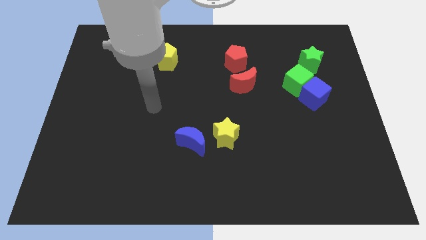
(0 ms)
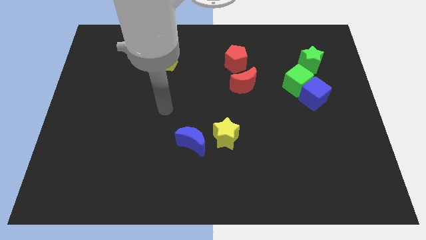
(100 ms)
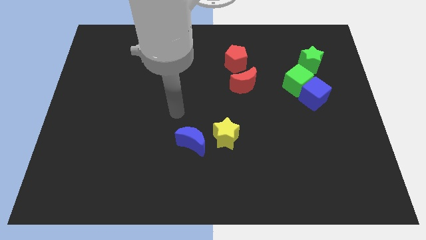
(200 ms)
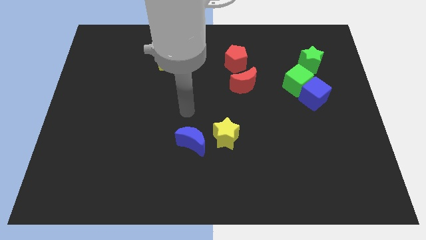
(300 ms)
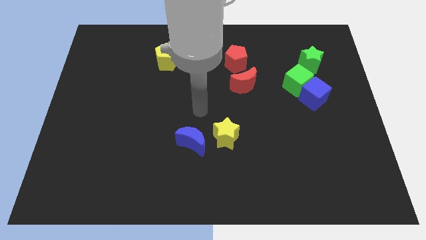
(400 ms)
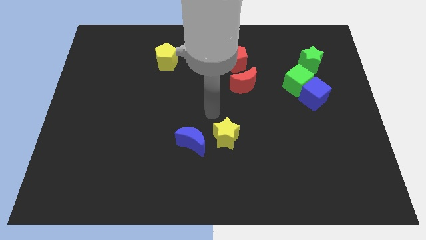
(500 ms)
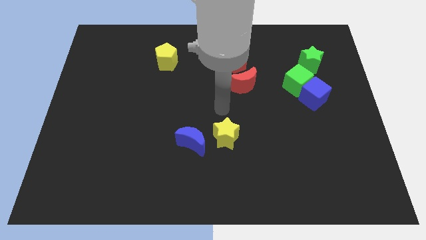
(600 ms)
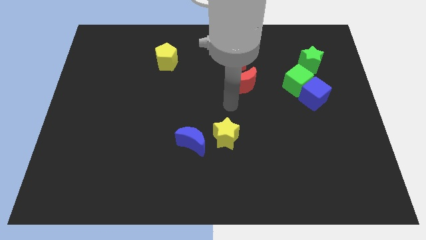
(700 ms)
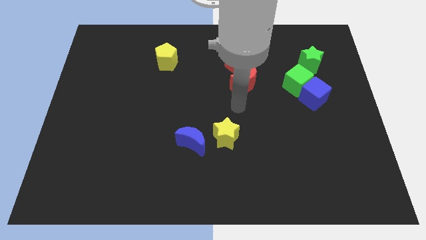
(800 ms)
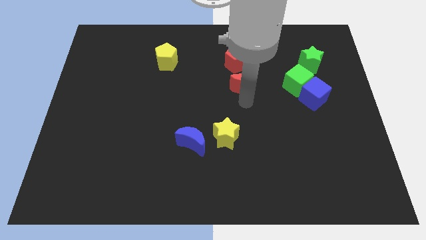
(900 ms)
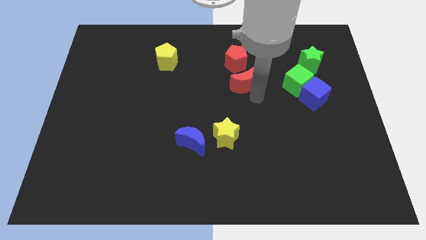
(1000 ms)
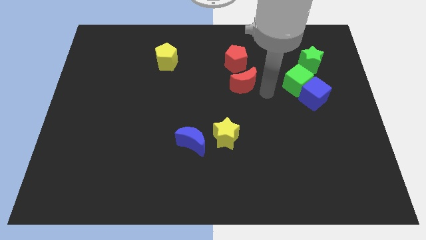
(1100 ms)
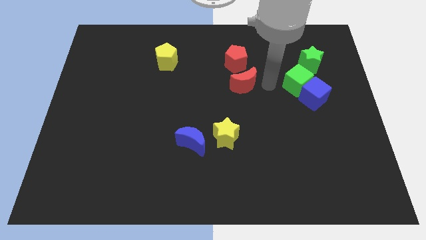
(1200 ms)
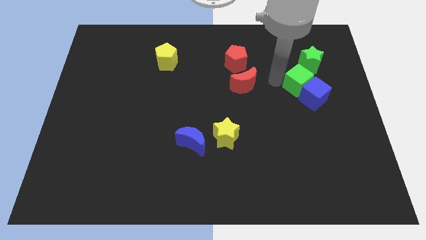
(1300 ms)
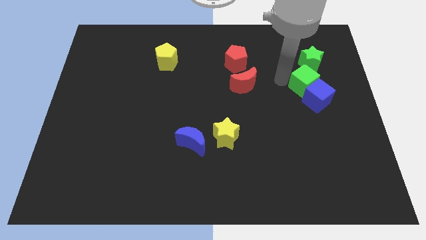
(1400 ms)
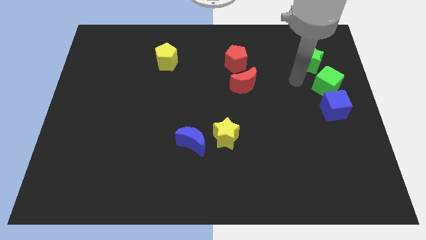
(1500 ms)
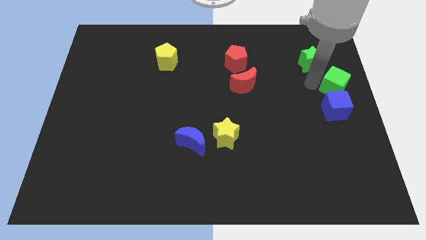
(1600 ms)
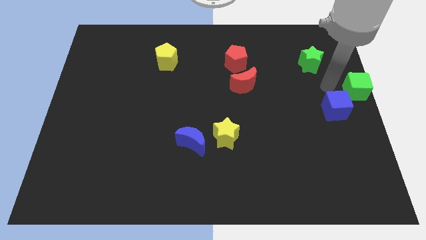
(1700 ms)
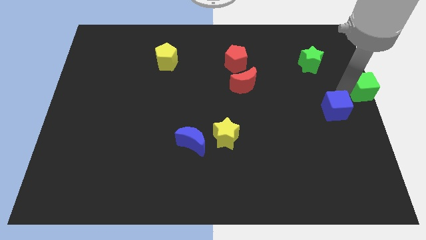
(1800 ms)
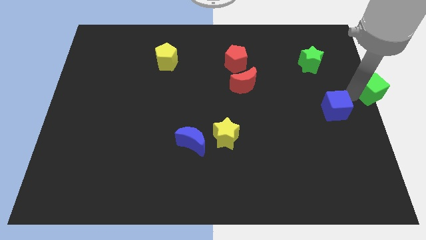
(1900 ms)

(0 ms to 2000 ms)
pull the blue cube apart from the green cube

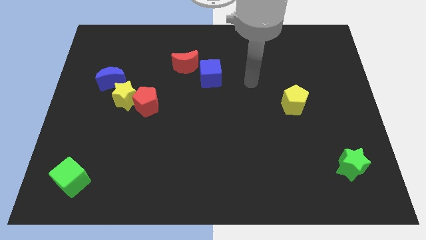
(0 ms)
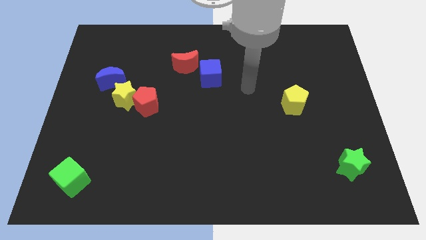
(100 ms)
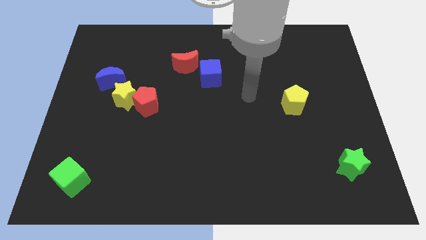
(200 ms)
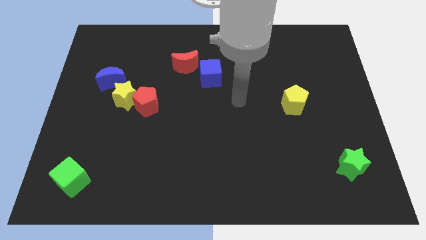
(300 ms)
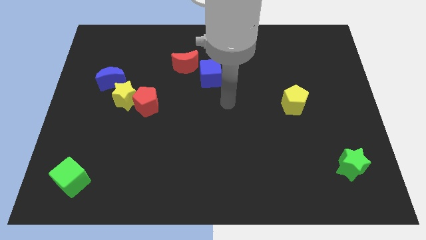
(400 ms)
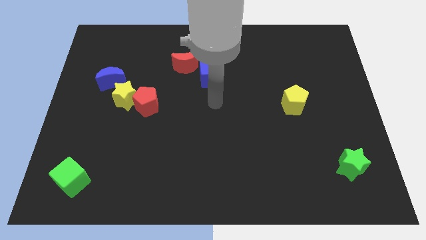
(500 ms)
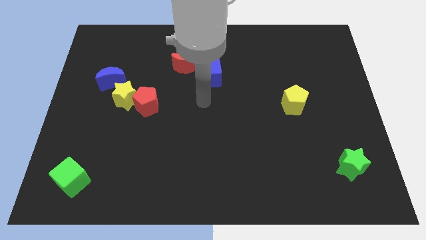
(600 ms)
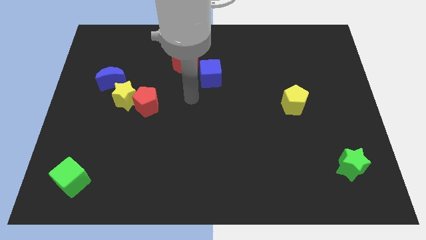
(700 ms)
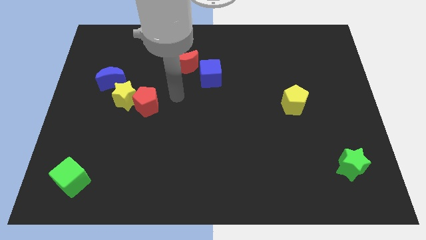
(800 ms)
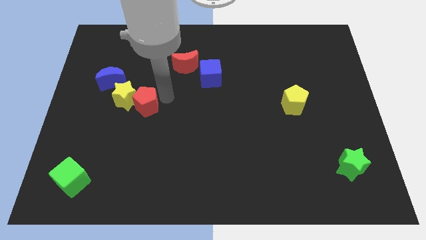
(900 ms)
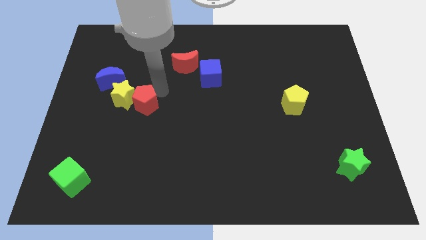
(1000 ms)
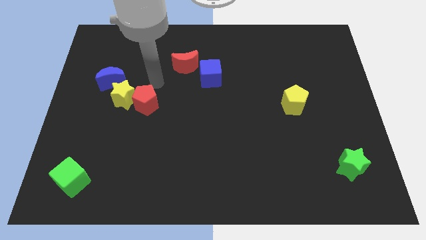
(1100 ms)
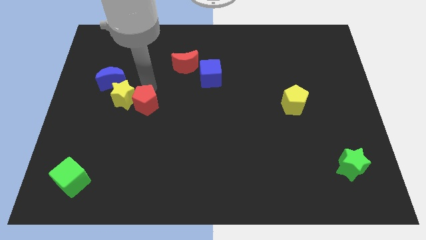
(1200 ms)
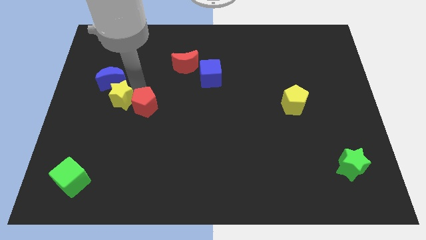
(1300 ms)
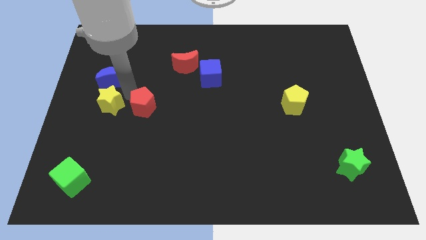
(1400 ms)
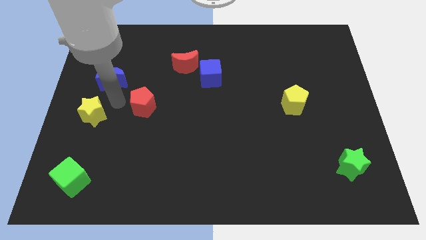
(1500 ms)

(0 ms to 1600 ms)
move the red pentagon away from the yellow star

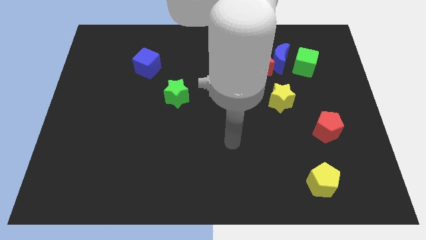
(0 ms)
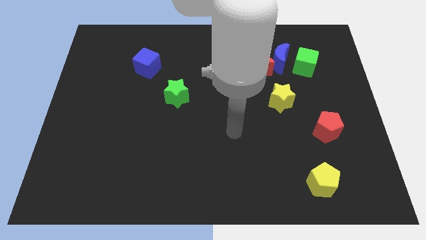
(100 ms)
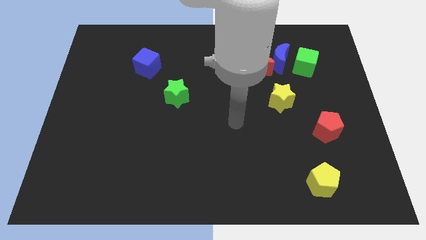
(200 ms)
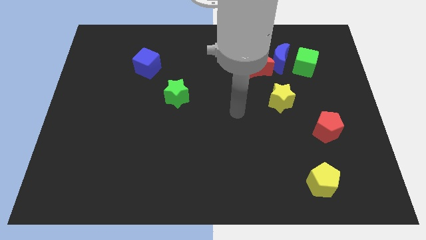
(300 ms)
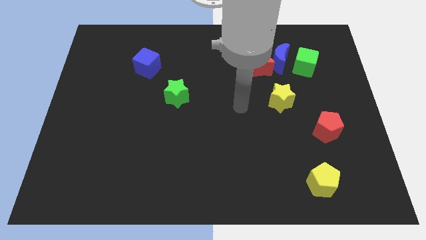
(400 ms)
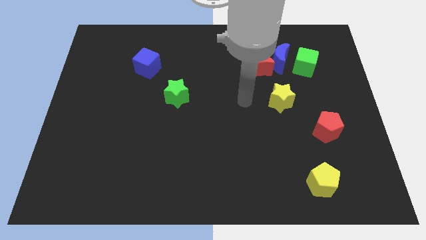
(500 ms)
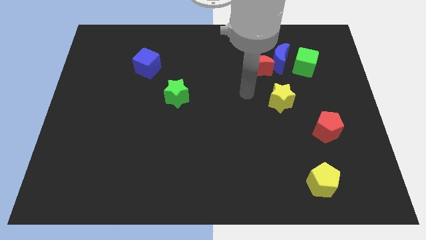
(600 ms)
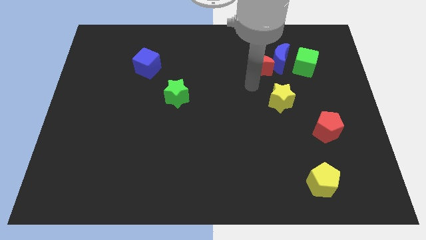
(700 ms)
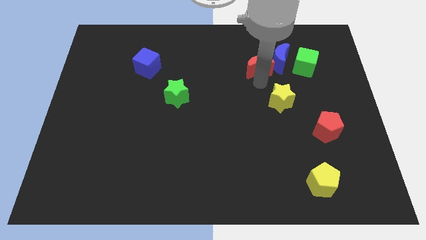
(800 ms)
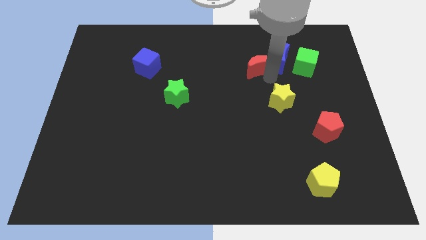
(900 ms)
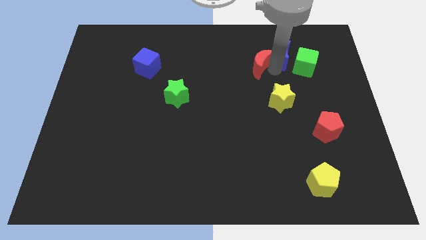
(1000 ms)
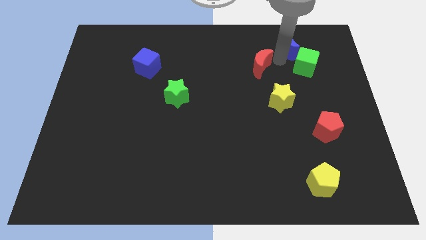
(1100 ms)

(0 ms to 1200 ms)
separate the red moon from the blue moon

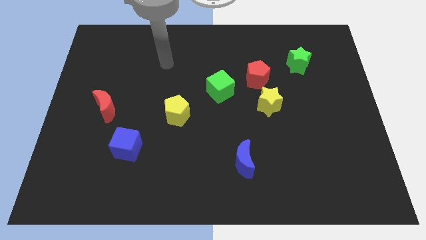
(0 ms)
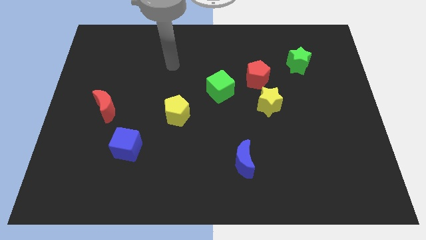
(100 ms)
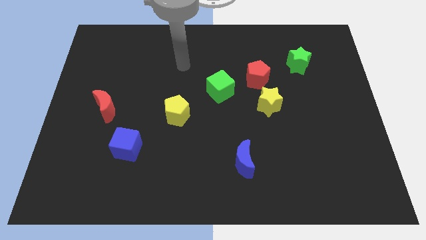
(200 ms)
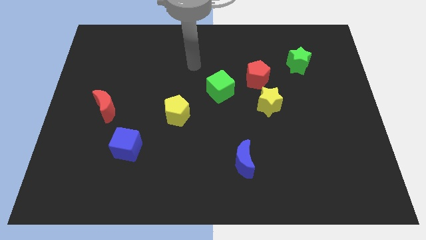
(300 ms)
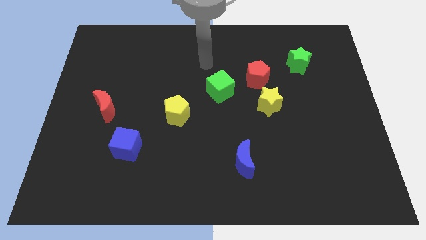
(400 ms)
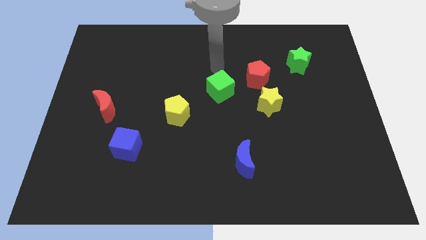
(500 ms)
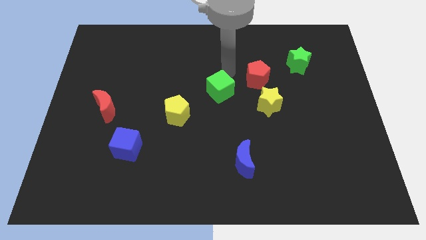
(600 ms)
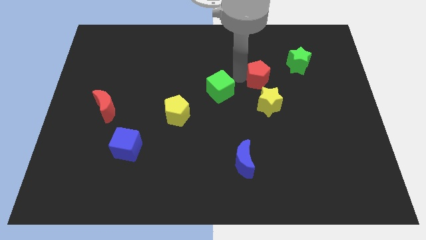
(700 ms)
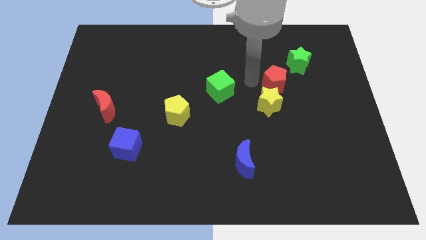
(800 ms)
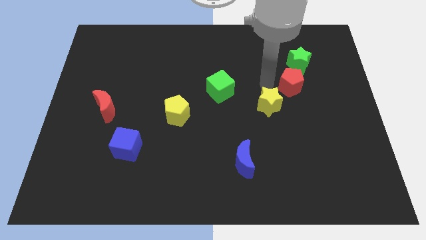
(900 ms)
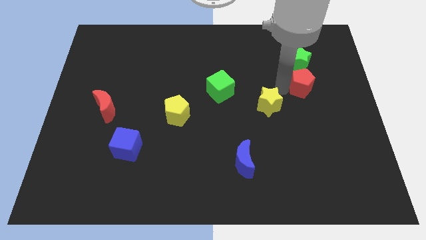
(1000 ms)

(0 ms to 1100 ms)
separate the yellow star from the red pentagon

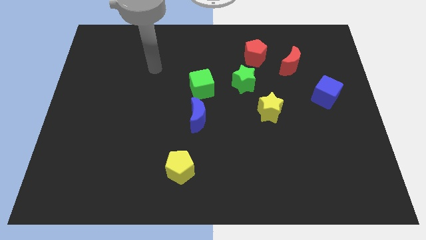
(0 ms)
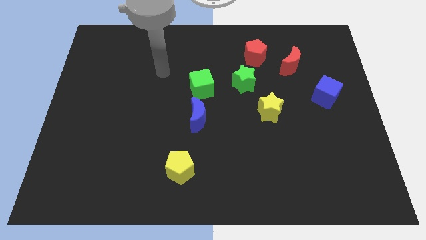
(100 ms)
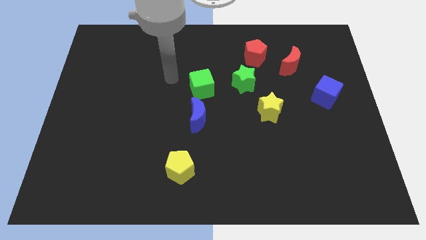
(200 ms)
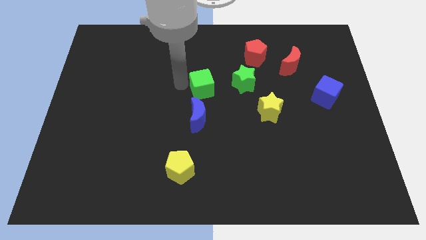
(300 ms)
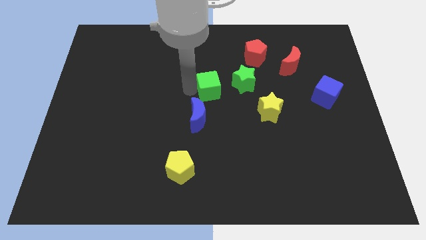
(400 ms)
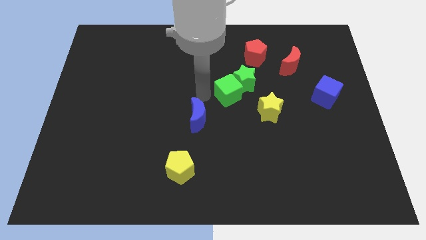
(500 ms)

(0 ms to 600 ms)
move the blue moon away from the green cube

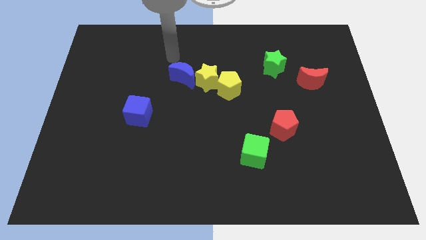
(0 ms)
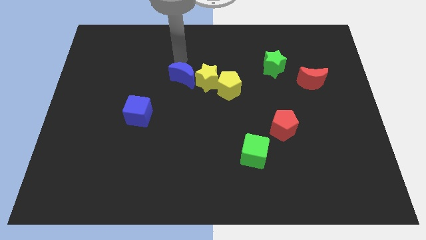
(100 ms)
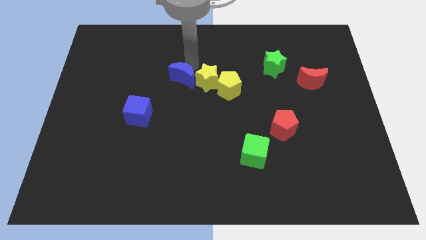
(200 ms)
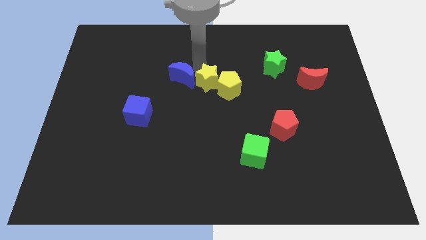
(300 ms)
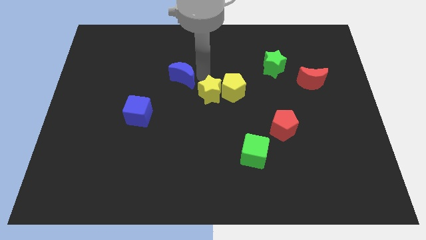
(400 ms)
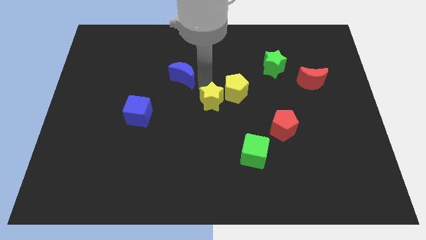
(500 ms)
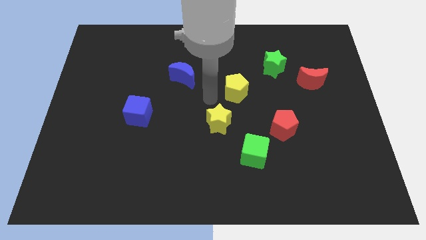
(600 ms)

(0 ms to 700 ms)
move the yellow pentagon away from the yellow star

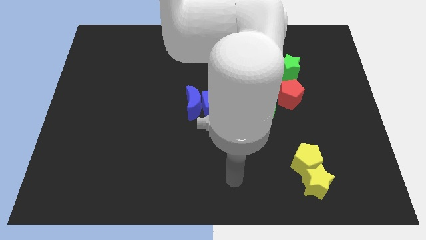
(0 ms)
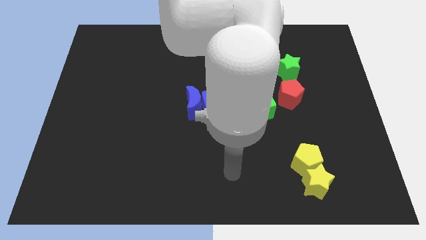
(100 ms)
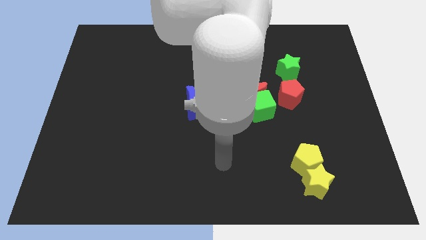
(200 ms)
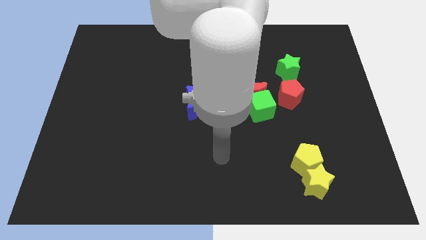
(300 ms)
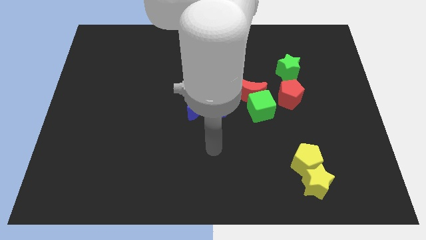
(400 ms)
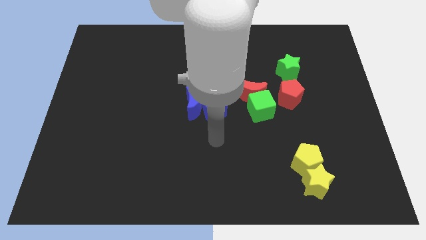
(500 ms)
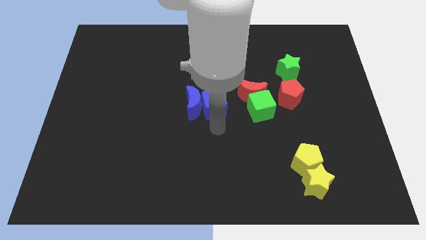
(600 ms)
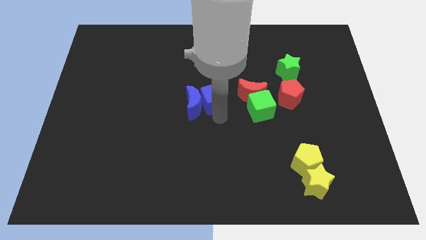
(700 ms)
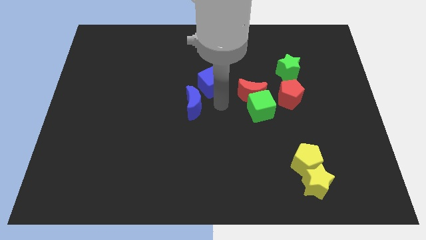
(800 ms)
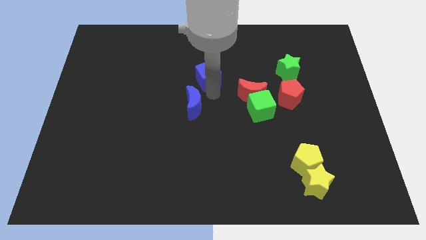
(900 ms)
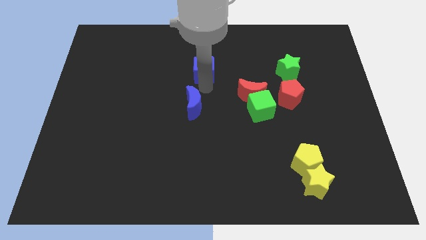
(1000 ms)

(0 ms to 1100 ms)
separate the blue moon from the blue cube

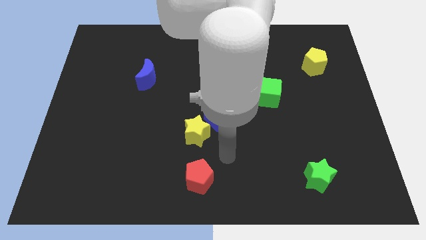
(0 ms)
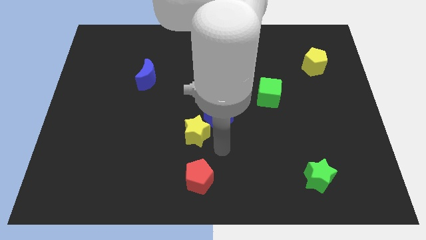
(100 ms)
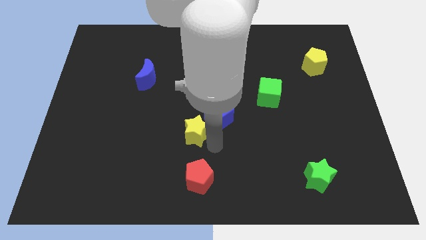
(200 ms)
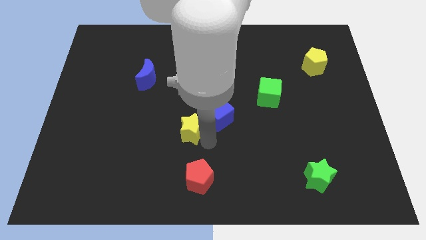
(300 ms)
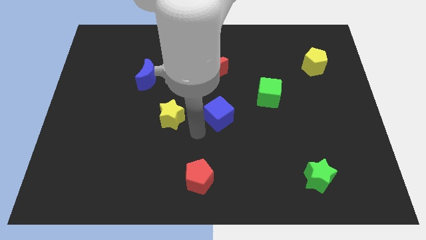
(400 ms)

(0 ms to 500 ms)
move the blue cube away from the yellow star

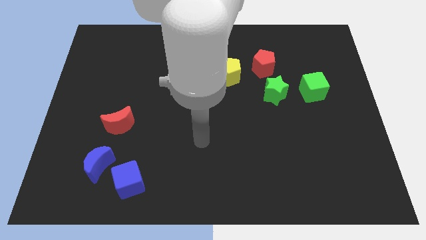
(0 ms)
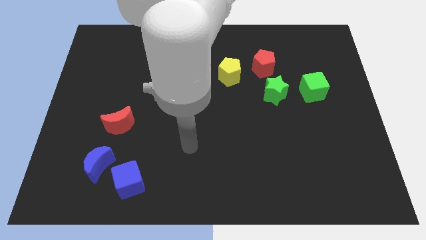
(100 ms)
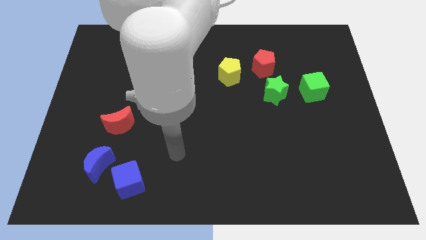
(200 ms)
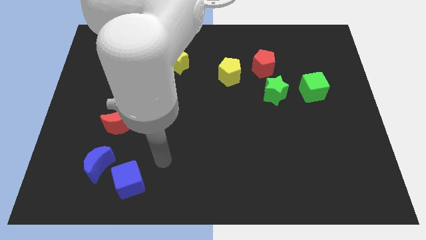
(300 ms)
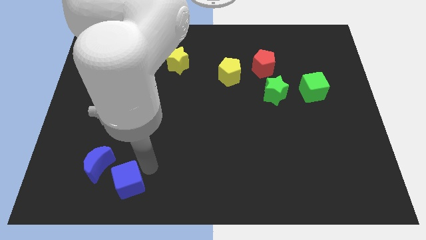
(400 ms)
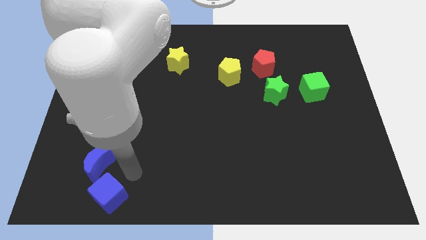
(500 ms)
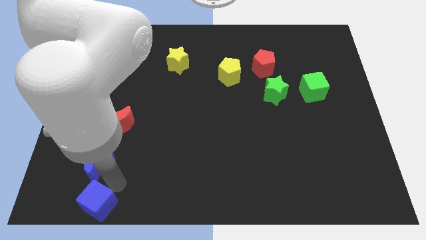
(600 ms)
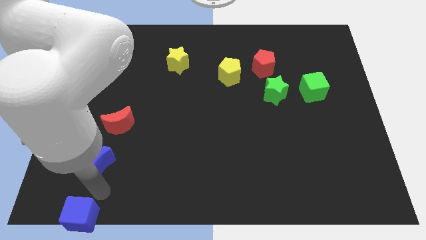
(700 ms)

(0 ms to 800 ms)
move the blue moon away from the blue cube
